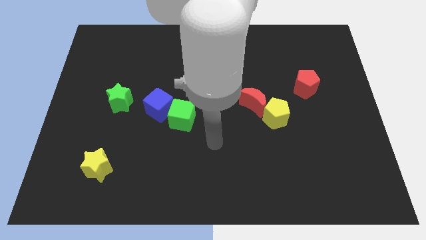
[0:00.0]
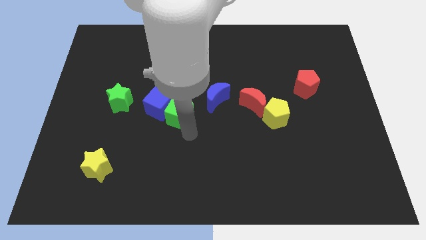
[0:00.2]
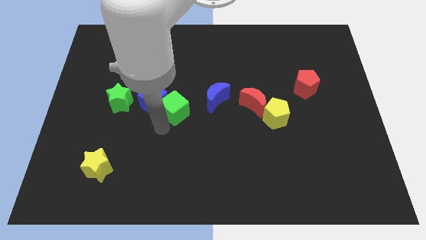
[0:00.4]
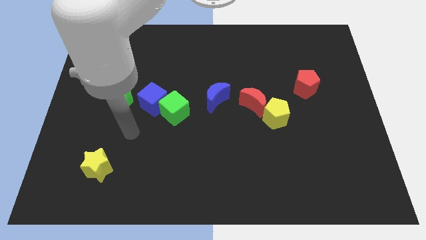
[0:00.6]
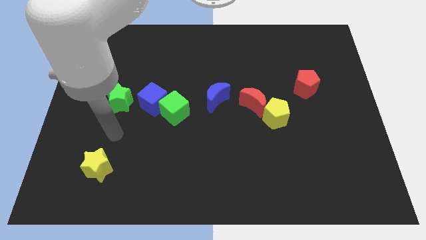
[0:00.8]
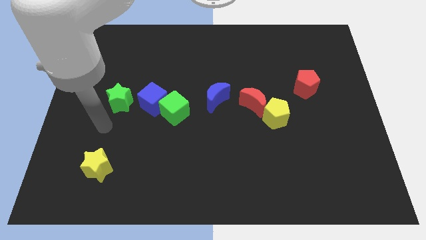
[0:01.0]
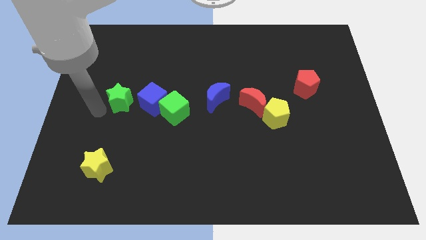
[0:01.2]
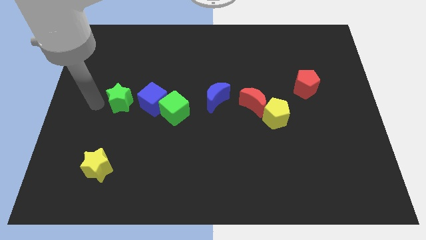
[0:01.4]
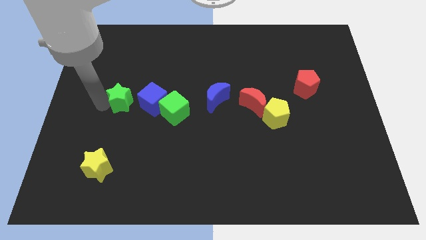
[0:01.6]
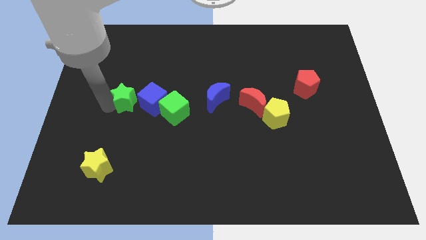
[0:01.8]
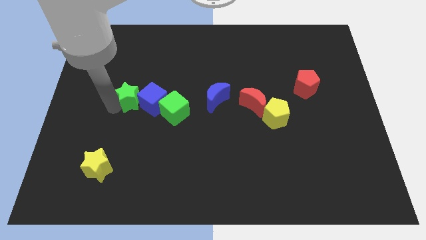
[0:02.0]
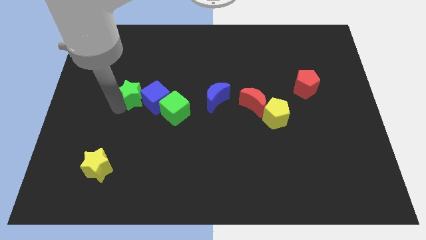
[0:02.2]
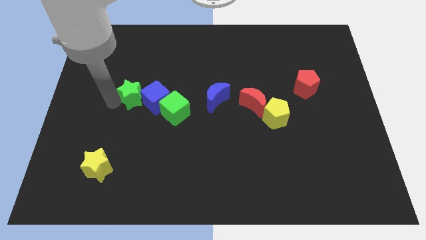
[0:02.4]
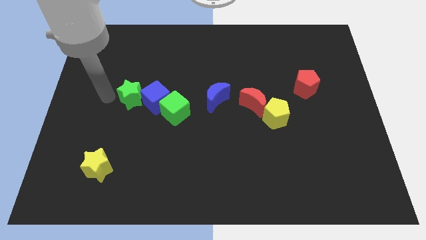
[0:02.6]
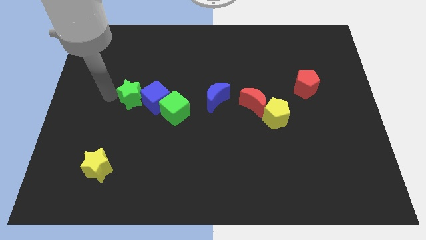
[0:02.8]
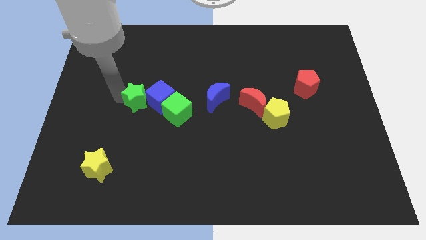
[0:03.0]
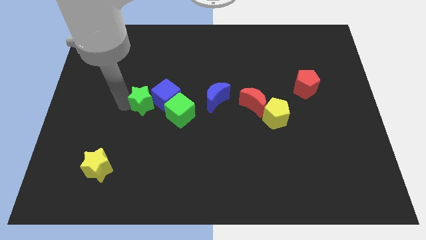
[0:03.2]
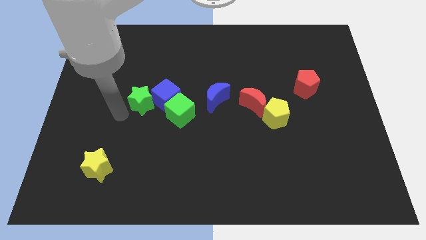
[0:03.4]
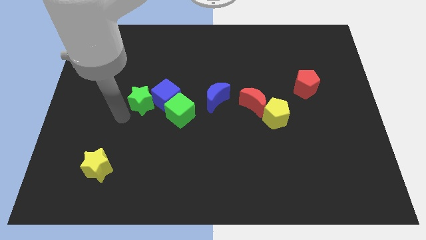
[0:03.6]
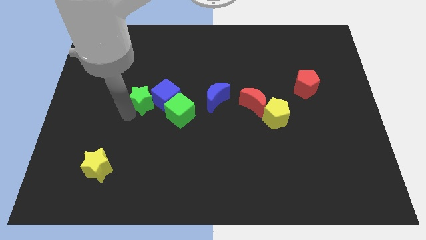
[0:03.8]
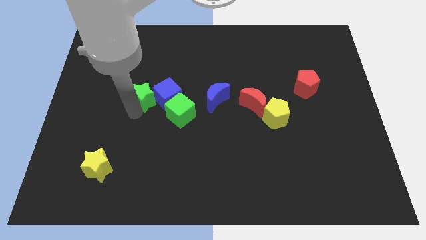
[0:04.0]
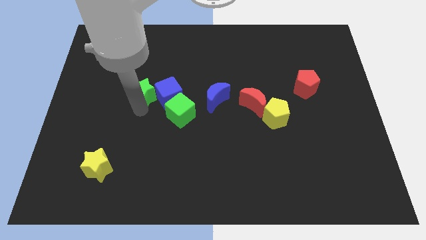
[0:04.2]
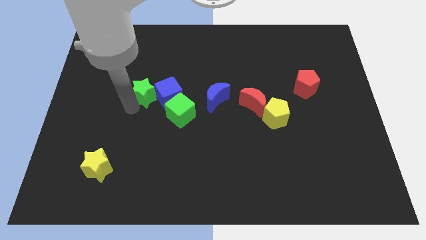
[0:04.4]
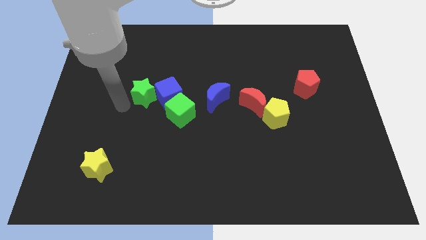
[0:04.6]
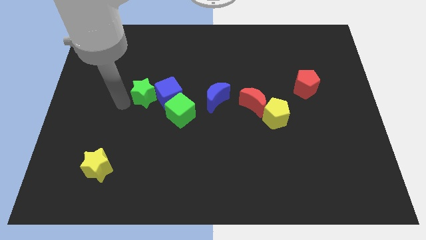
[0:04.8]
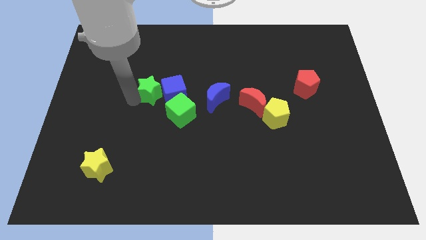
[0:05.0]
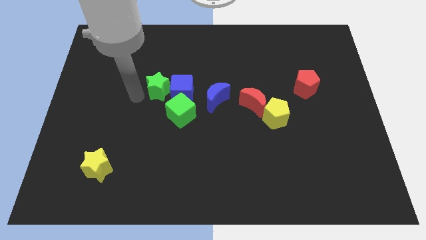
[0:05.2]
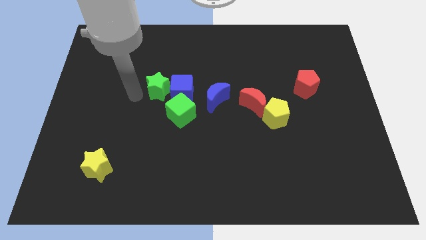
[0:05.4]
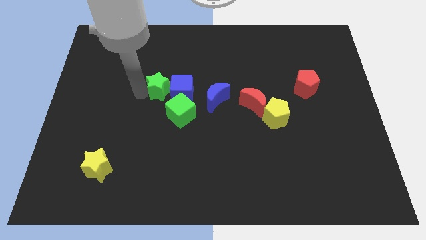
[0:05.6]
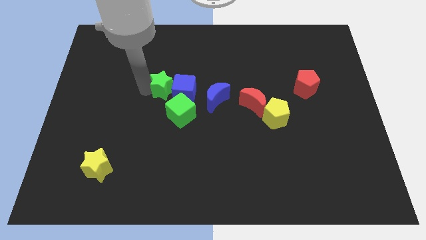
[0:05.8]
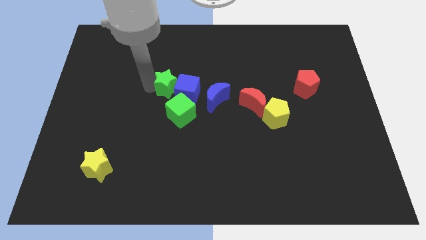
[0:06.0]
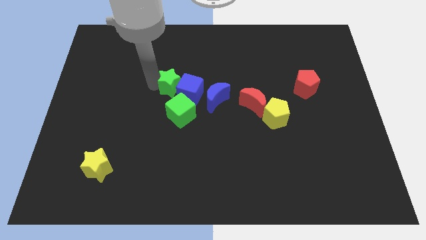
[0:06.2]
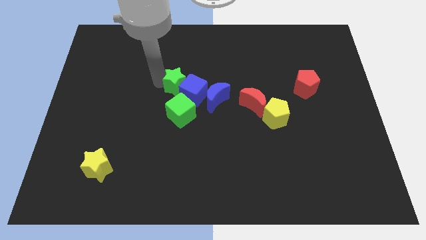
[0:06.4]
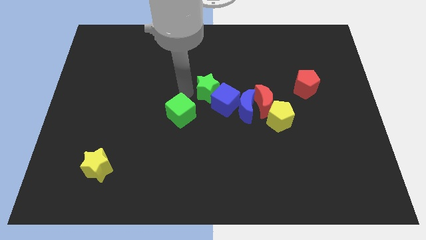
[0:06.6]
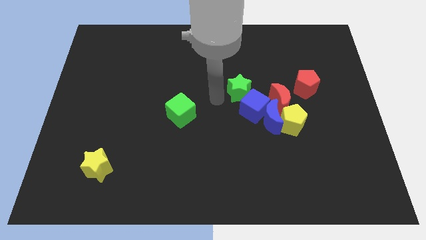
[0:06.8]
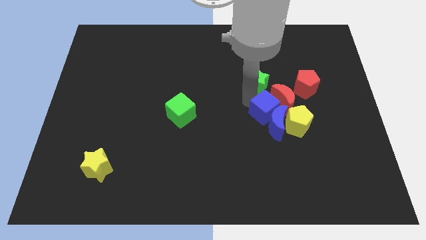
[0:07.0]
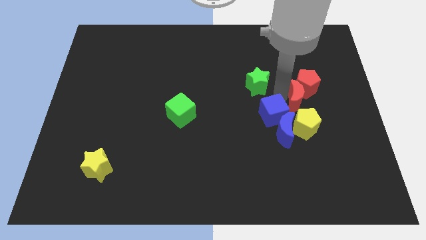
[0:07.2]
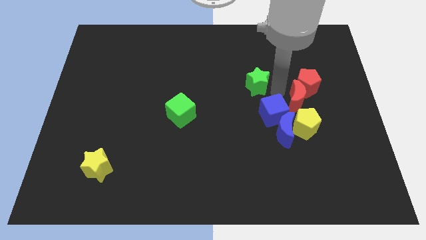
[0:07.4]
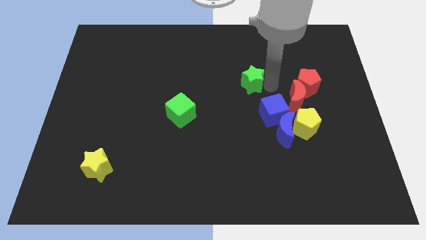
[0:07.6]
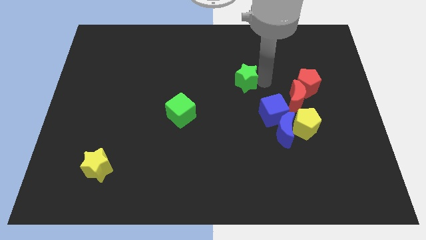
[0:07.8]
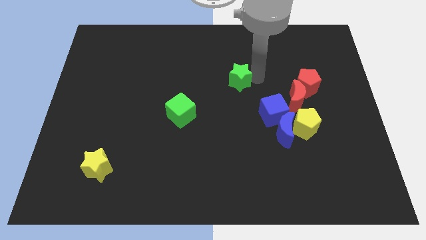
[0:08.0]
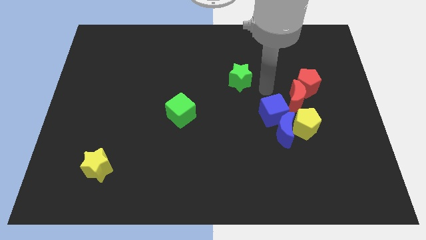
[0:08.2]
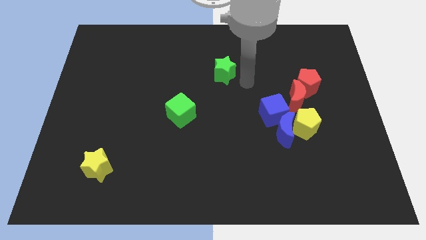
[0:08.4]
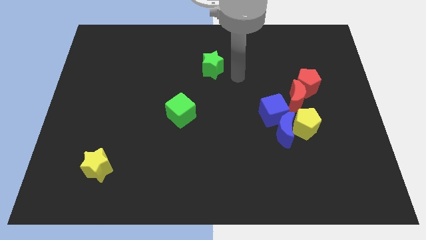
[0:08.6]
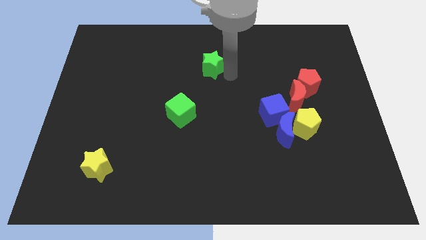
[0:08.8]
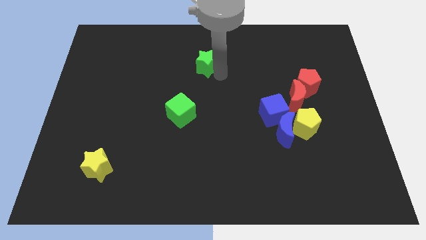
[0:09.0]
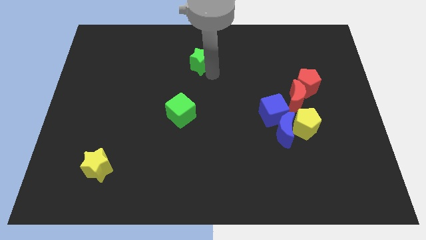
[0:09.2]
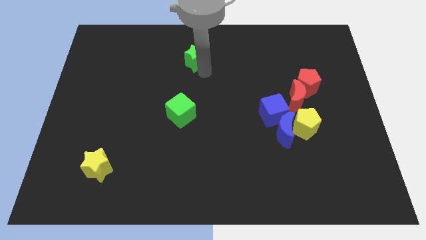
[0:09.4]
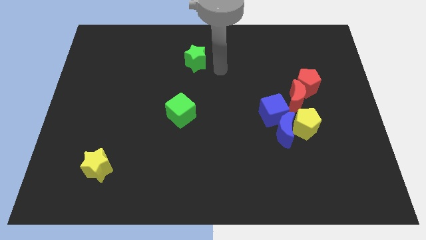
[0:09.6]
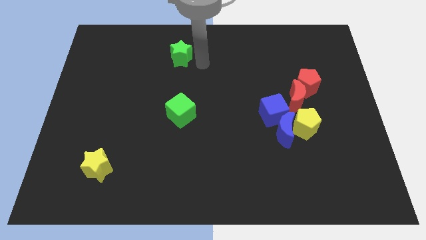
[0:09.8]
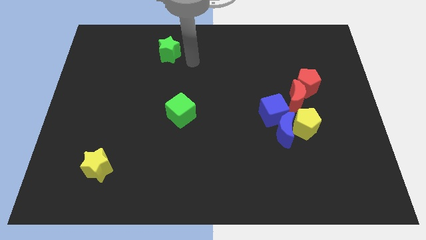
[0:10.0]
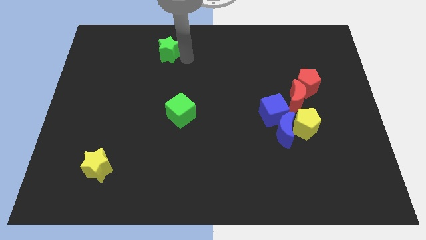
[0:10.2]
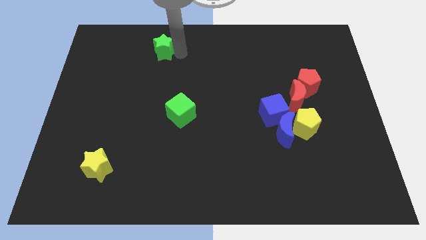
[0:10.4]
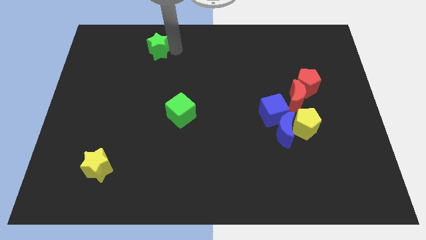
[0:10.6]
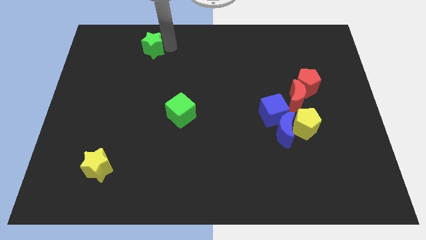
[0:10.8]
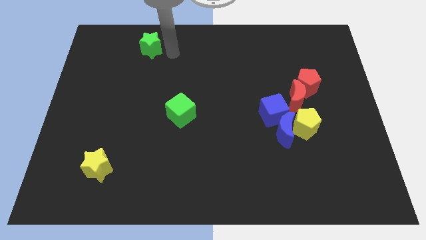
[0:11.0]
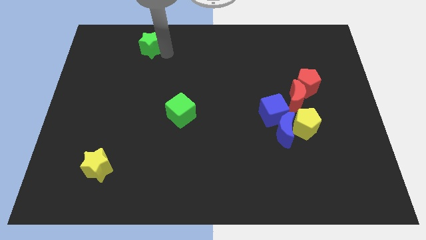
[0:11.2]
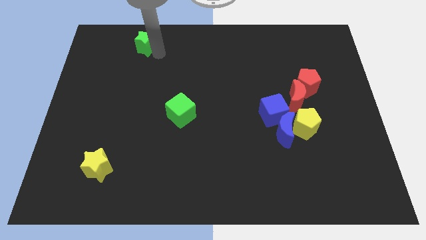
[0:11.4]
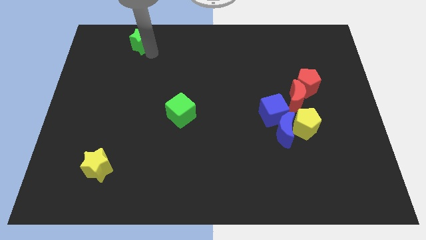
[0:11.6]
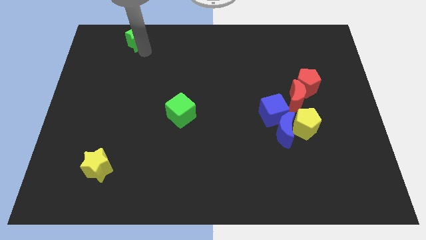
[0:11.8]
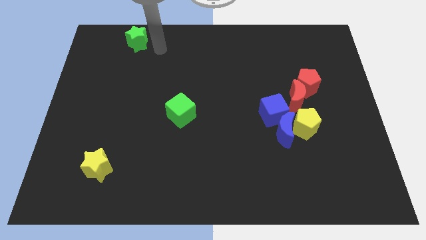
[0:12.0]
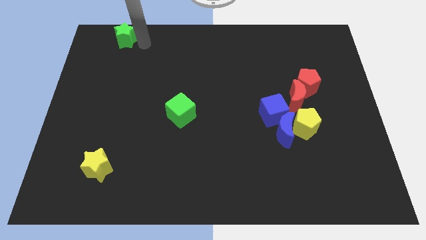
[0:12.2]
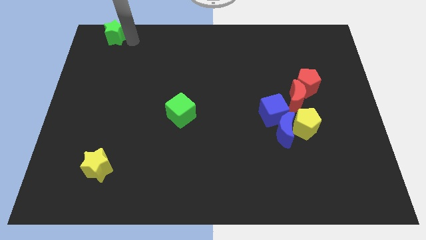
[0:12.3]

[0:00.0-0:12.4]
slide the green star to the top left corner

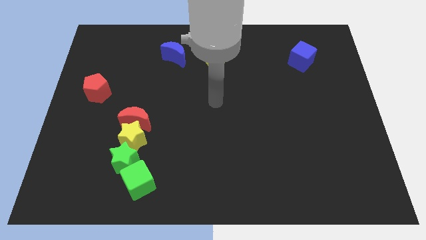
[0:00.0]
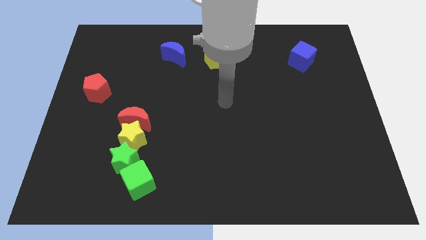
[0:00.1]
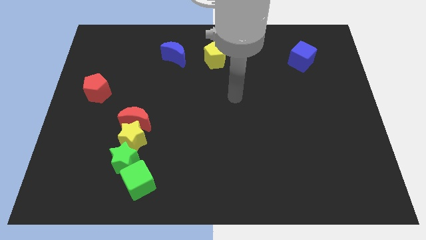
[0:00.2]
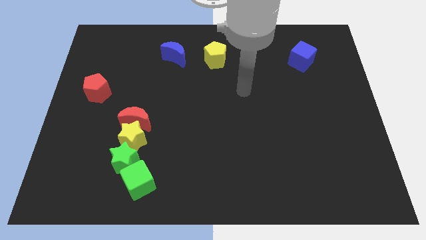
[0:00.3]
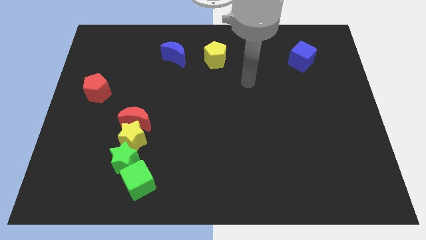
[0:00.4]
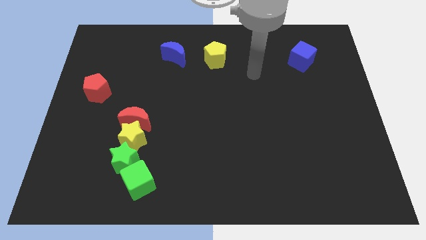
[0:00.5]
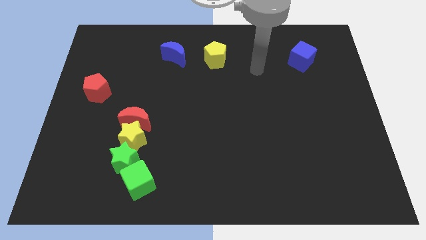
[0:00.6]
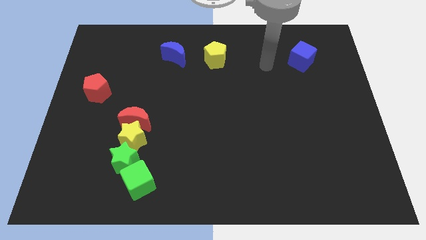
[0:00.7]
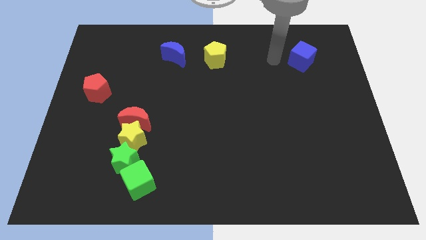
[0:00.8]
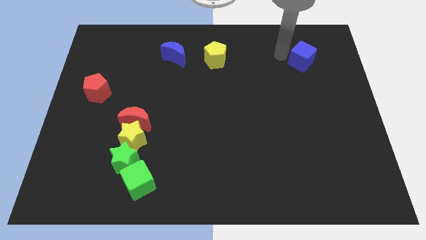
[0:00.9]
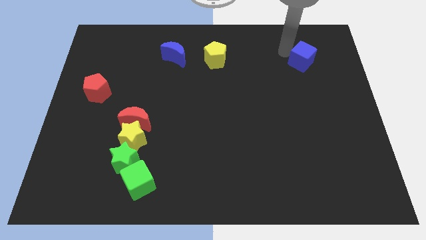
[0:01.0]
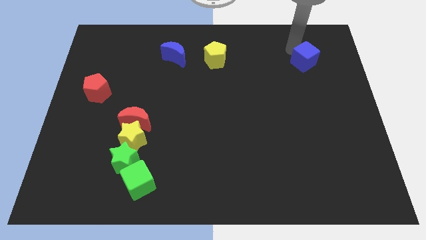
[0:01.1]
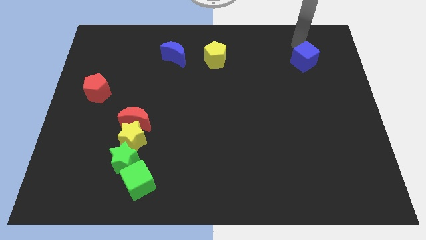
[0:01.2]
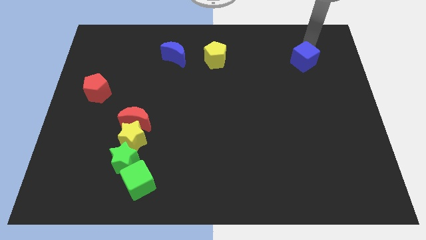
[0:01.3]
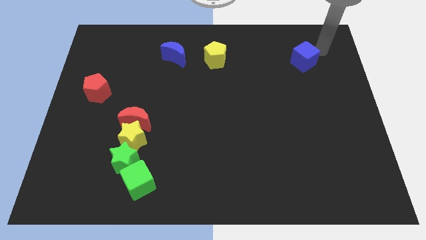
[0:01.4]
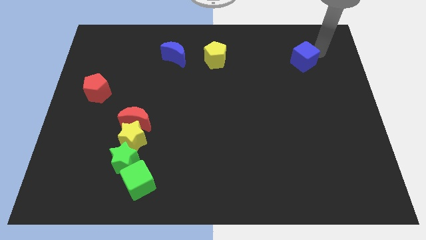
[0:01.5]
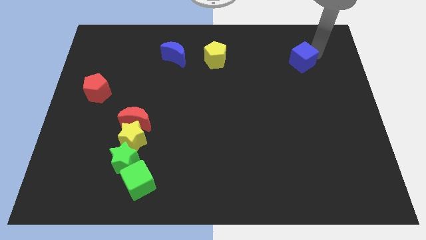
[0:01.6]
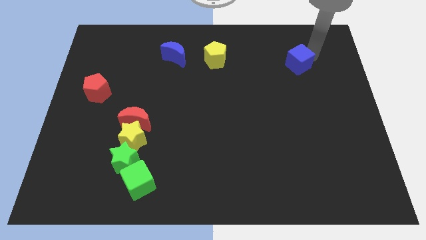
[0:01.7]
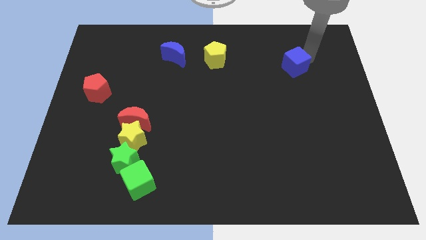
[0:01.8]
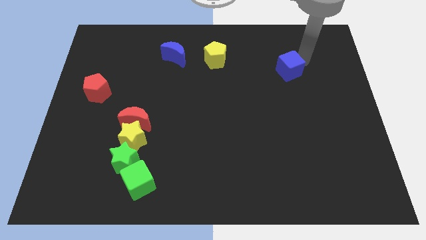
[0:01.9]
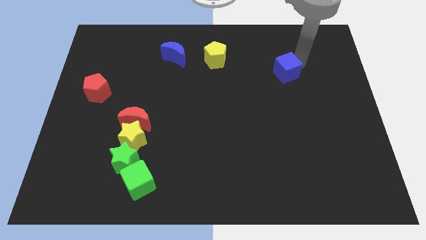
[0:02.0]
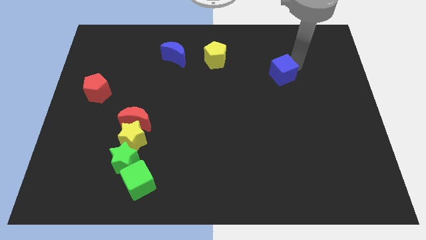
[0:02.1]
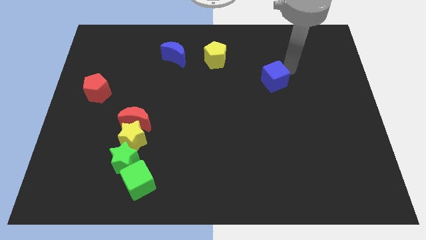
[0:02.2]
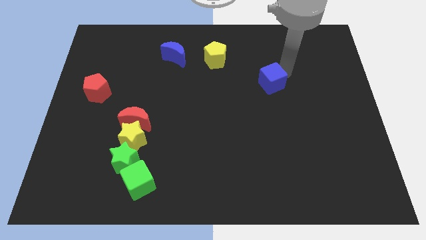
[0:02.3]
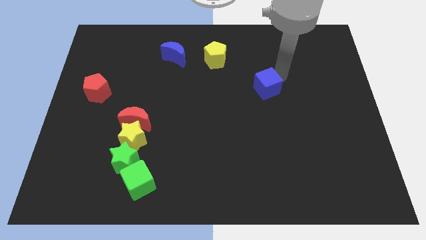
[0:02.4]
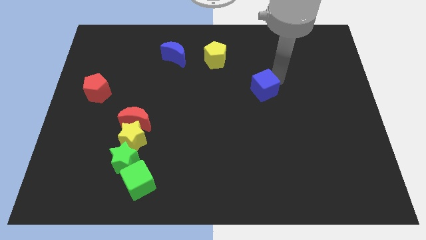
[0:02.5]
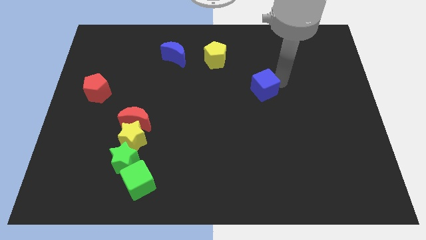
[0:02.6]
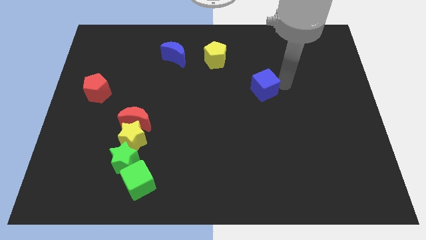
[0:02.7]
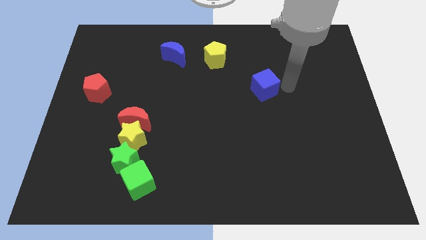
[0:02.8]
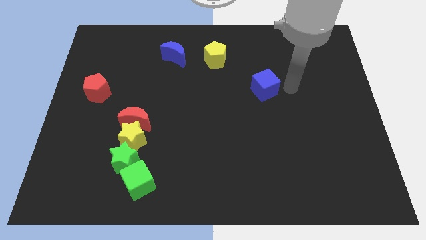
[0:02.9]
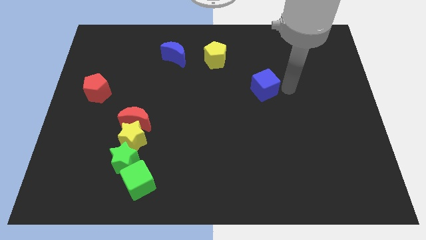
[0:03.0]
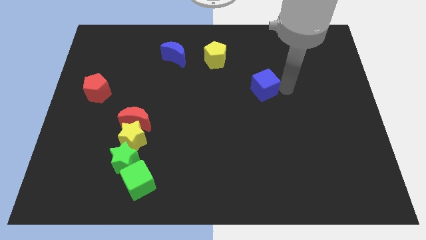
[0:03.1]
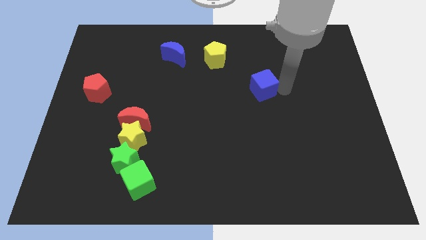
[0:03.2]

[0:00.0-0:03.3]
push the blue cube to the center
